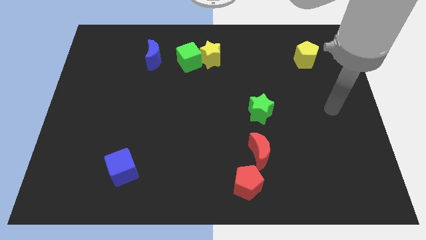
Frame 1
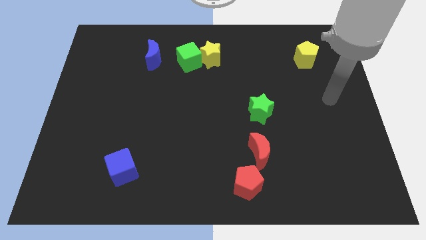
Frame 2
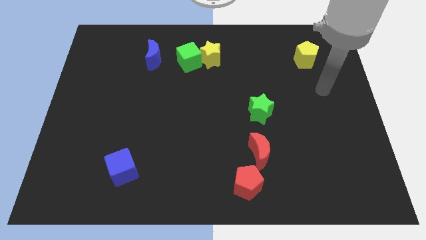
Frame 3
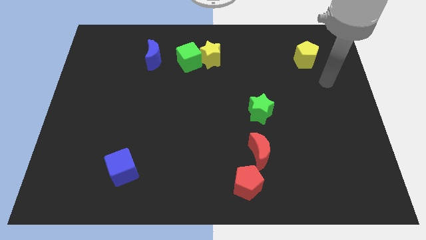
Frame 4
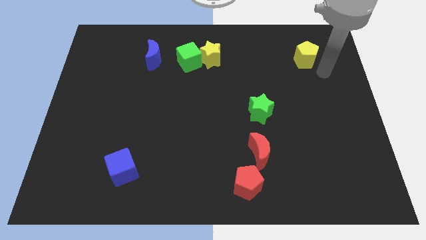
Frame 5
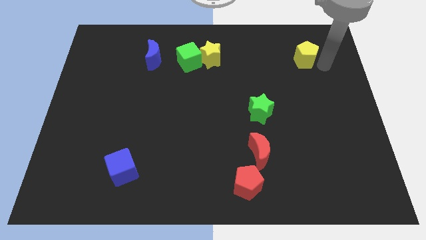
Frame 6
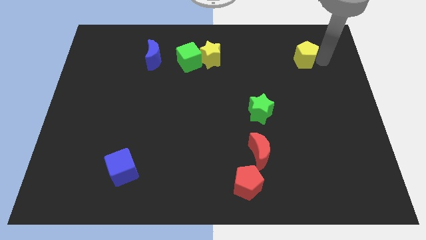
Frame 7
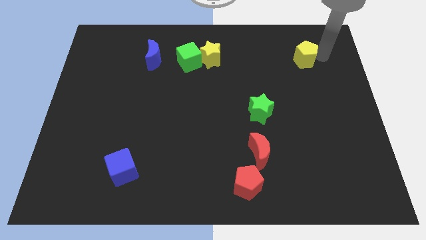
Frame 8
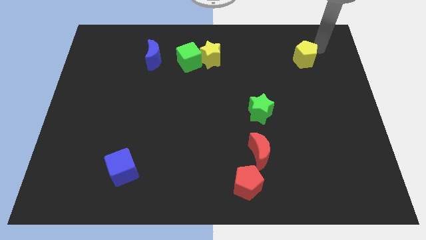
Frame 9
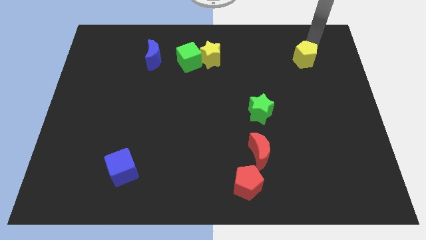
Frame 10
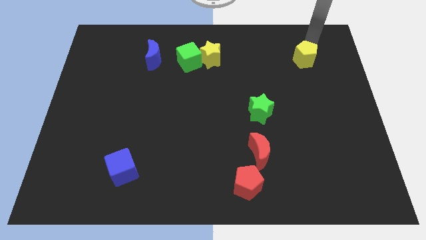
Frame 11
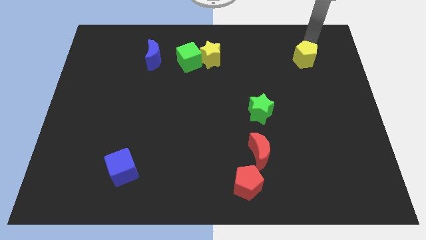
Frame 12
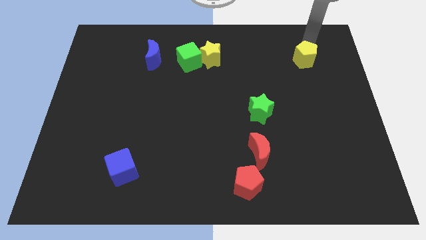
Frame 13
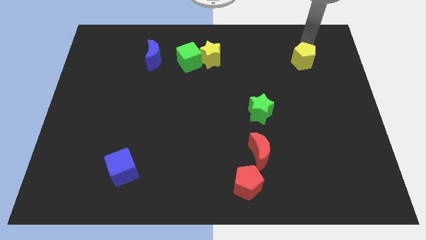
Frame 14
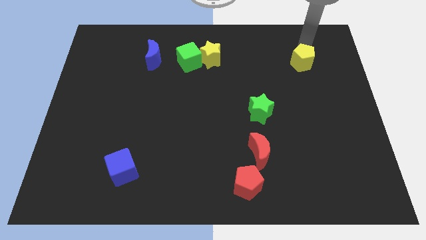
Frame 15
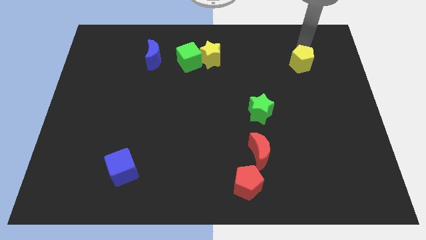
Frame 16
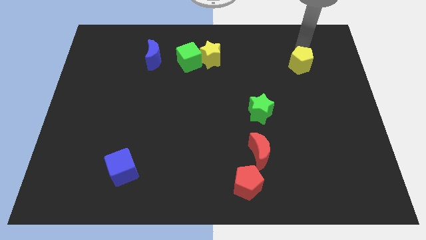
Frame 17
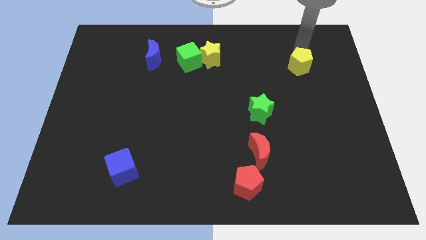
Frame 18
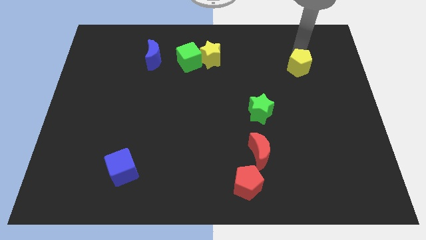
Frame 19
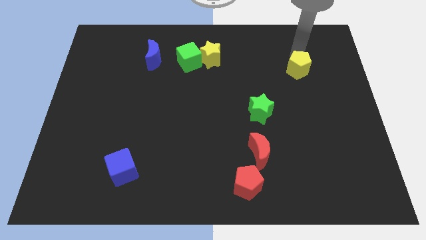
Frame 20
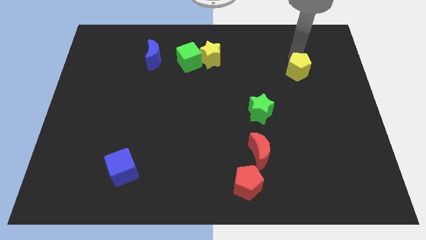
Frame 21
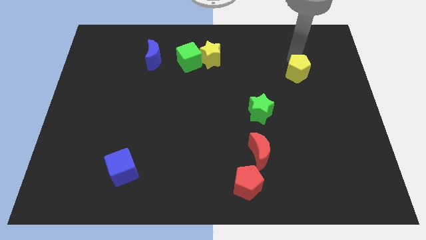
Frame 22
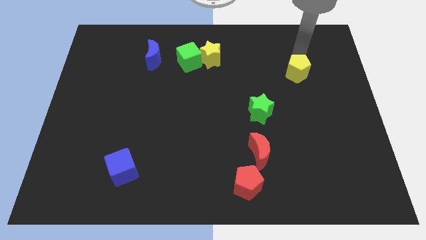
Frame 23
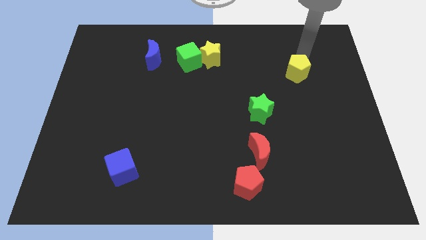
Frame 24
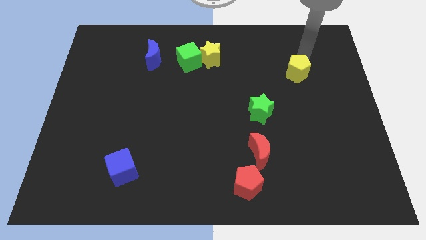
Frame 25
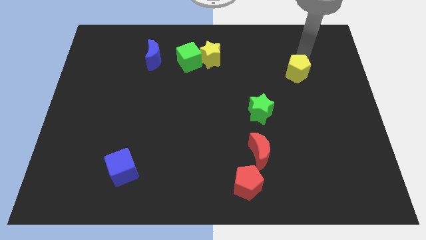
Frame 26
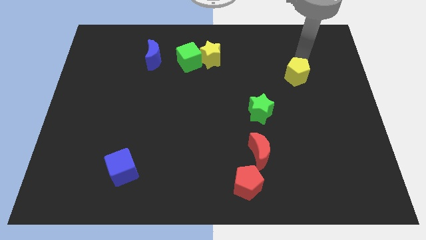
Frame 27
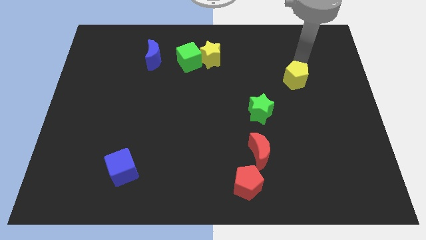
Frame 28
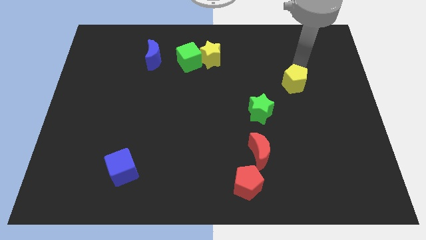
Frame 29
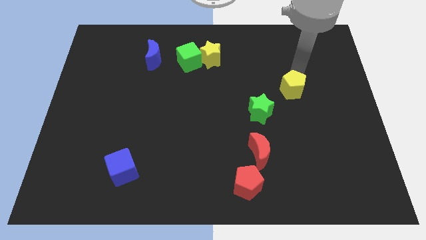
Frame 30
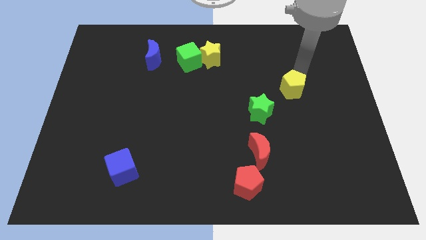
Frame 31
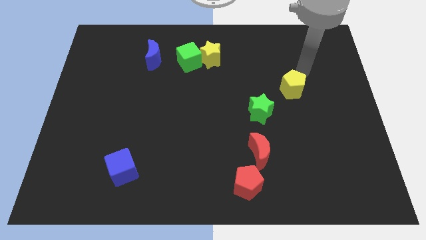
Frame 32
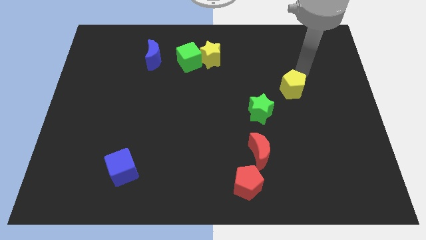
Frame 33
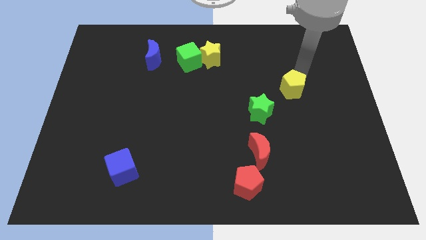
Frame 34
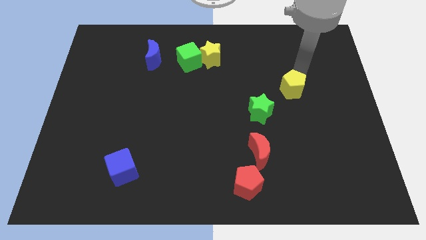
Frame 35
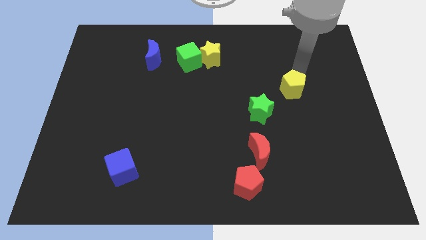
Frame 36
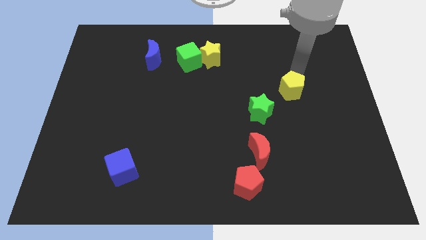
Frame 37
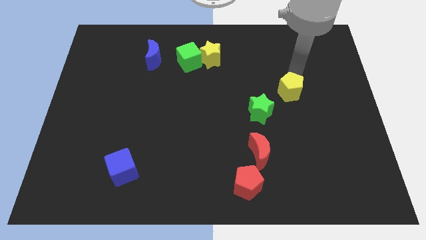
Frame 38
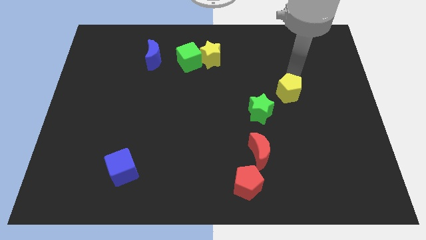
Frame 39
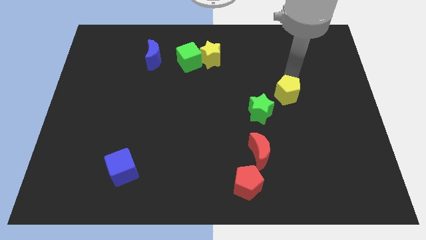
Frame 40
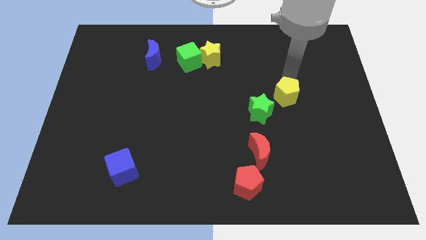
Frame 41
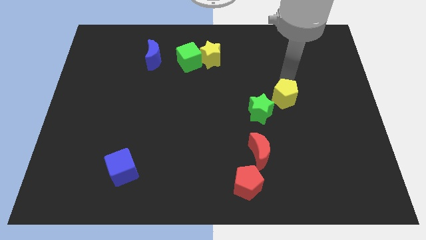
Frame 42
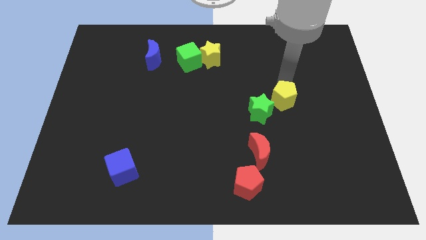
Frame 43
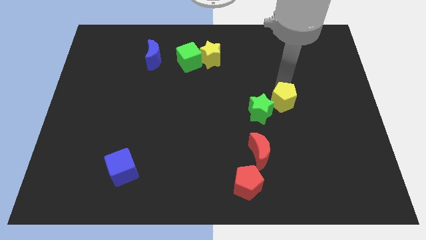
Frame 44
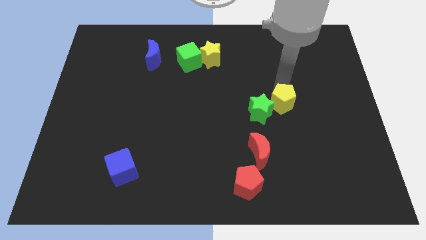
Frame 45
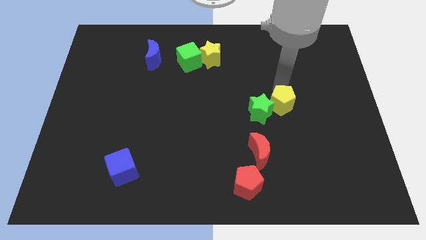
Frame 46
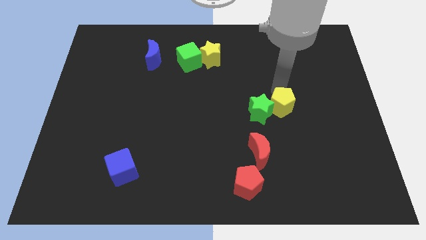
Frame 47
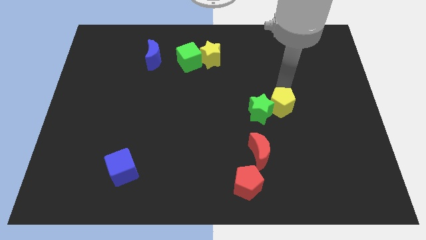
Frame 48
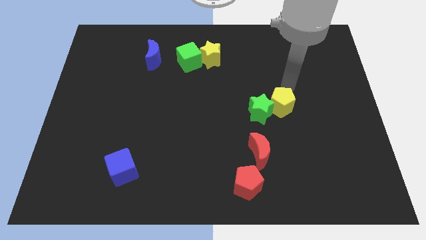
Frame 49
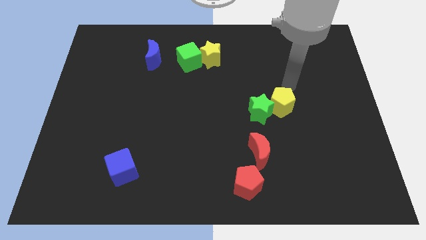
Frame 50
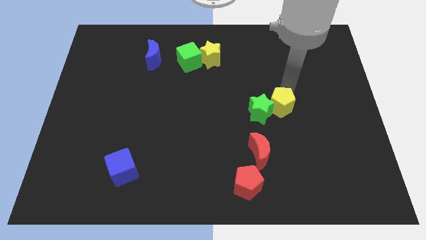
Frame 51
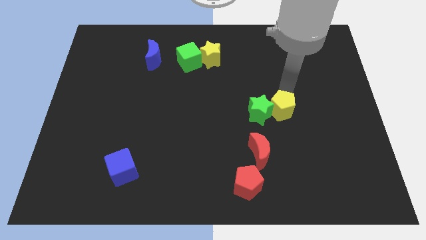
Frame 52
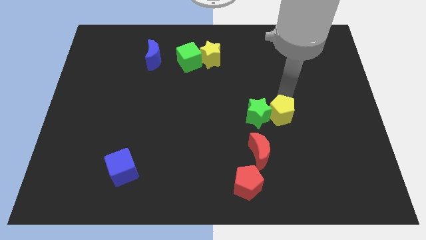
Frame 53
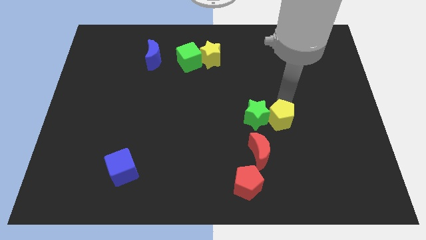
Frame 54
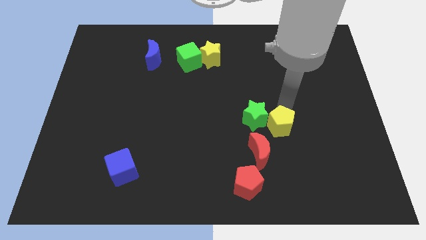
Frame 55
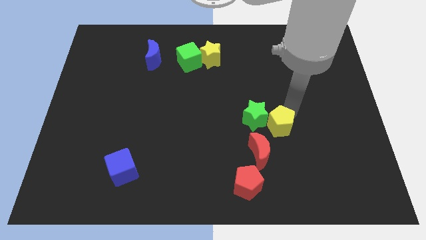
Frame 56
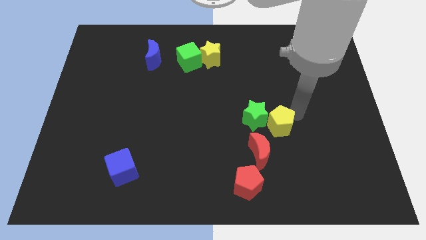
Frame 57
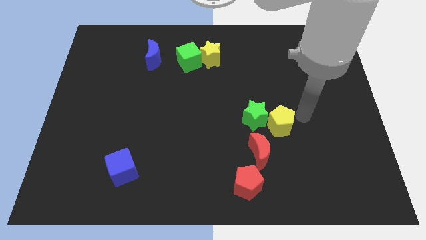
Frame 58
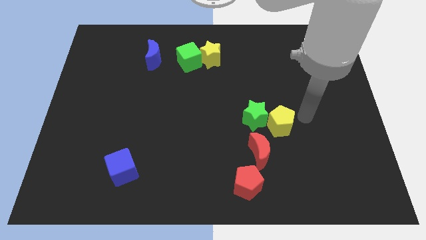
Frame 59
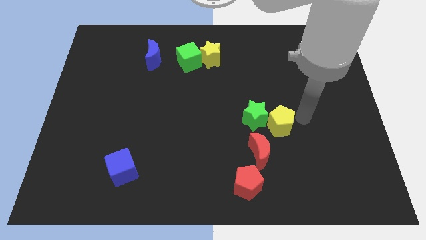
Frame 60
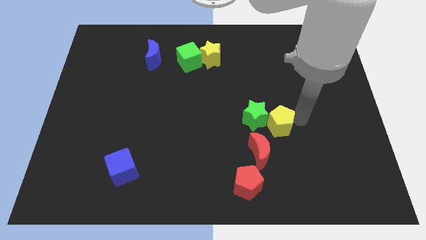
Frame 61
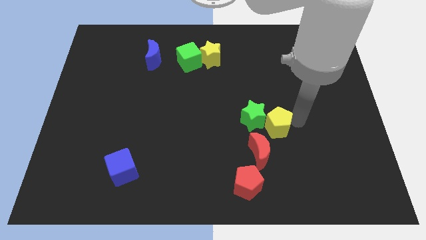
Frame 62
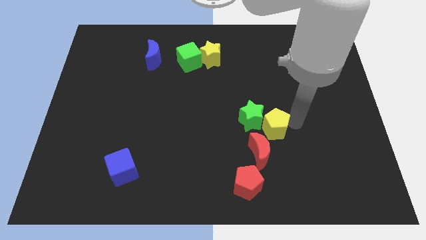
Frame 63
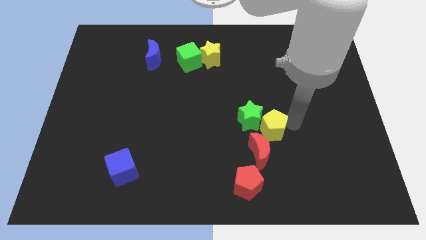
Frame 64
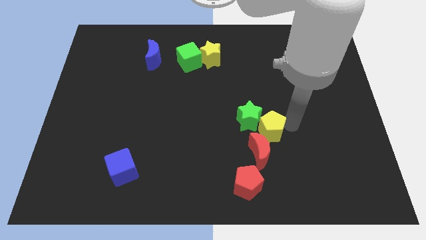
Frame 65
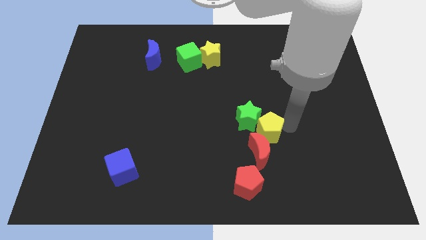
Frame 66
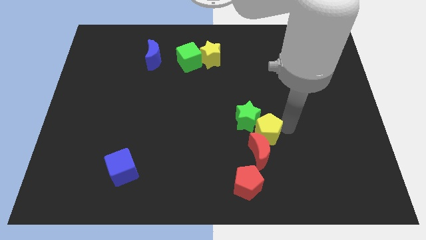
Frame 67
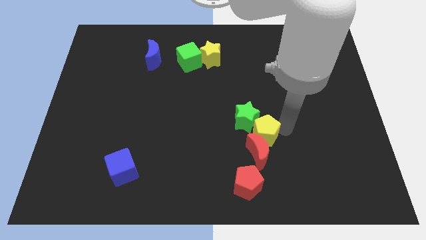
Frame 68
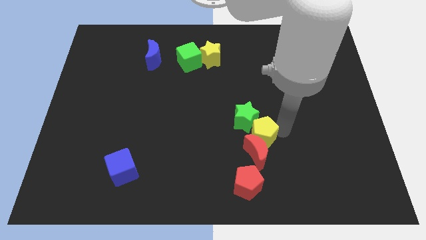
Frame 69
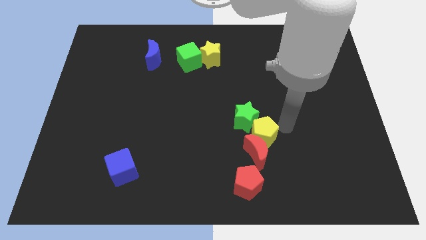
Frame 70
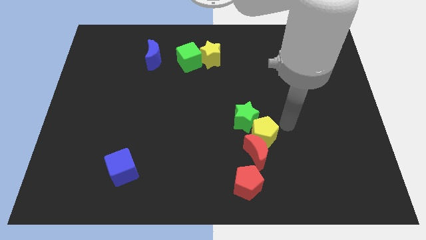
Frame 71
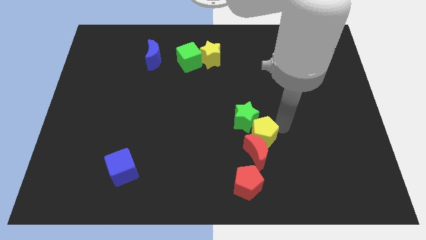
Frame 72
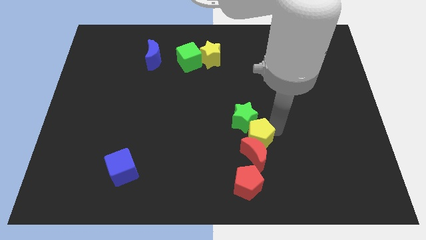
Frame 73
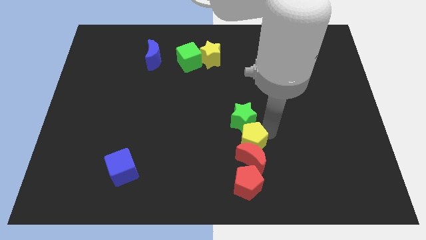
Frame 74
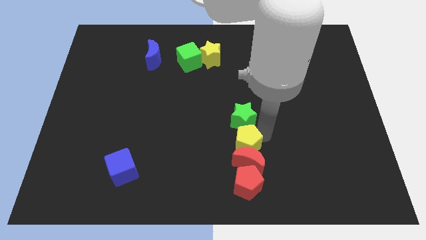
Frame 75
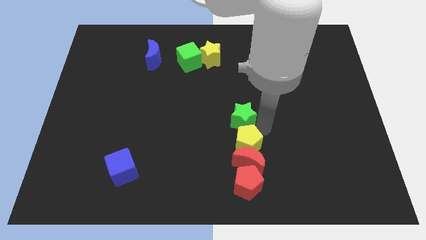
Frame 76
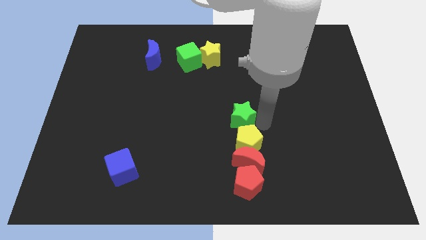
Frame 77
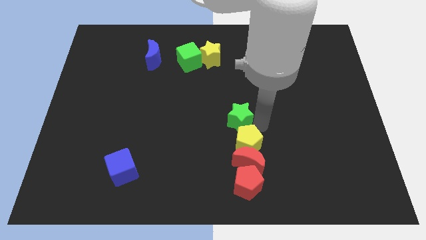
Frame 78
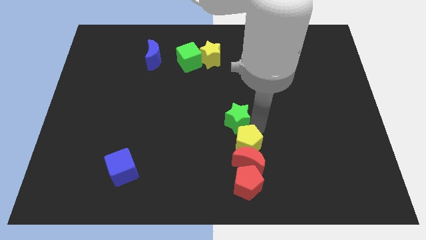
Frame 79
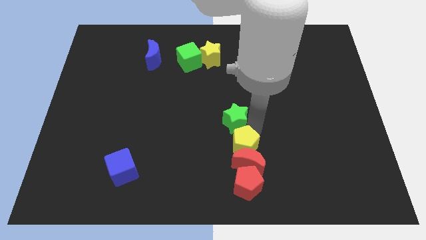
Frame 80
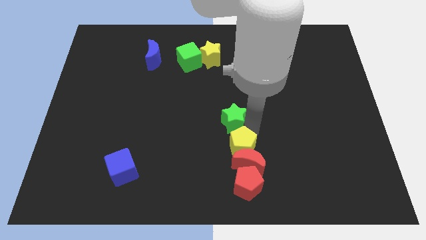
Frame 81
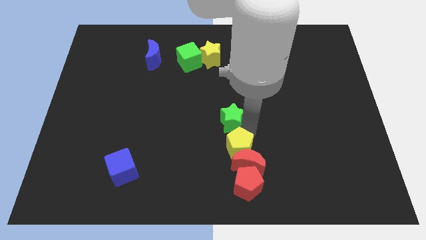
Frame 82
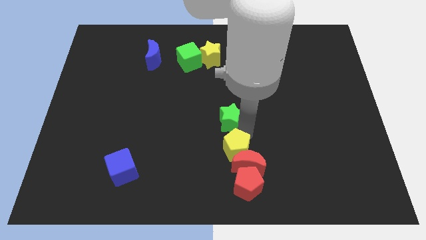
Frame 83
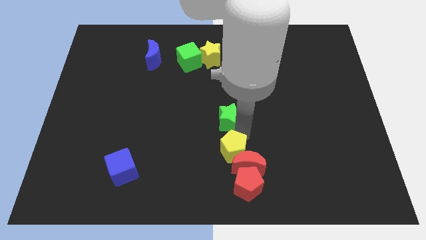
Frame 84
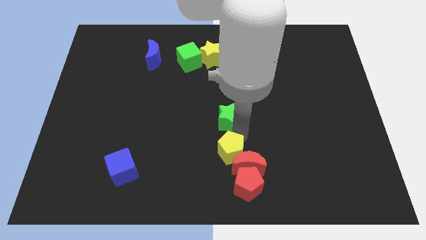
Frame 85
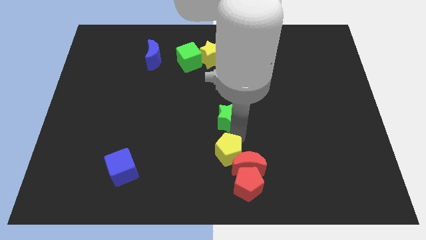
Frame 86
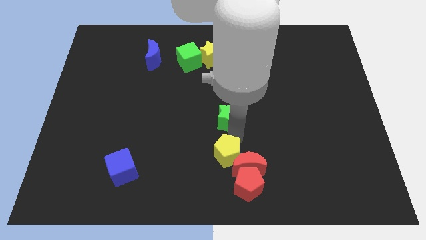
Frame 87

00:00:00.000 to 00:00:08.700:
slide the yellow pentagon to the bottom side
